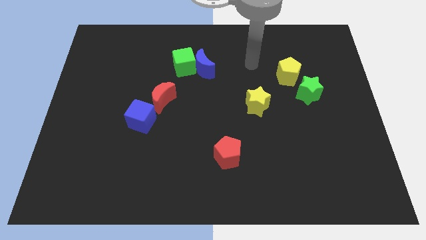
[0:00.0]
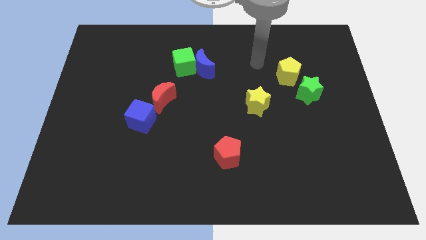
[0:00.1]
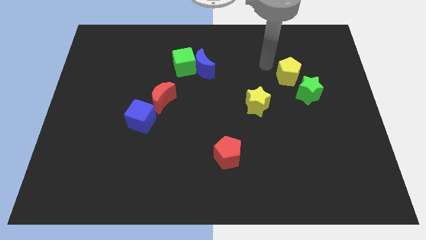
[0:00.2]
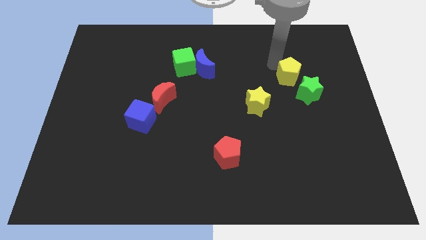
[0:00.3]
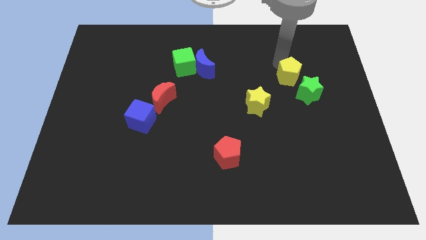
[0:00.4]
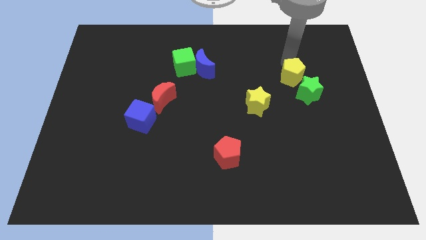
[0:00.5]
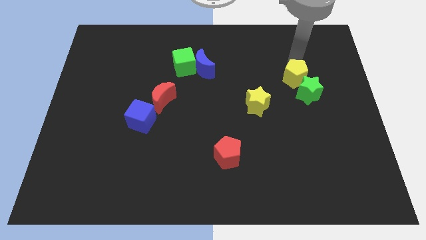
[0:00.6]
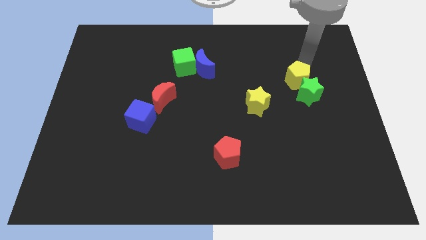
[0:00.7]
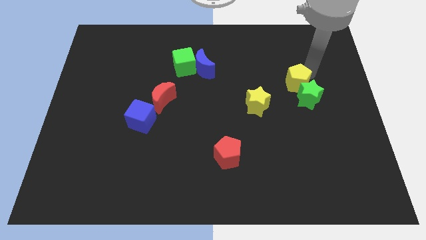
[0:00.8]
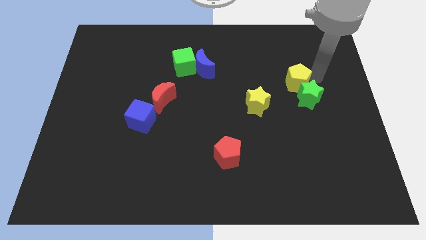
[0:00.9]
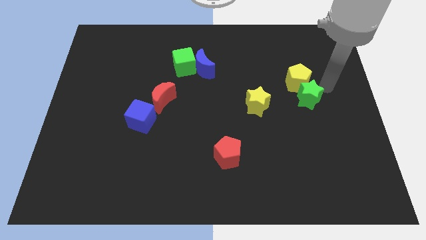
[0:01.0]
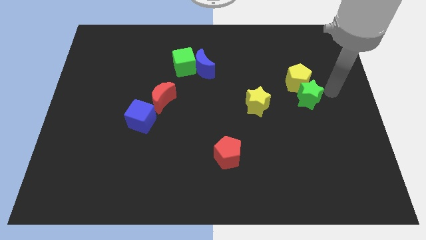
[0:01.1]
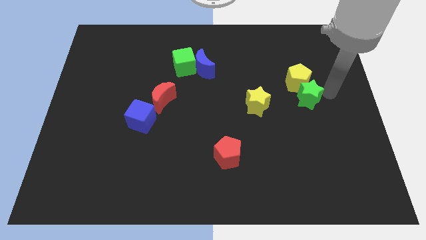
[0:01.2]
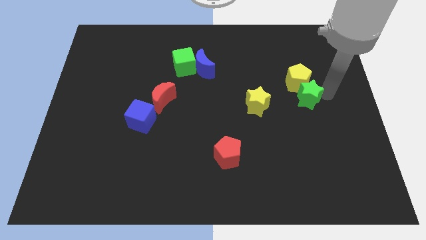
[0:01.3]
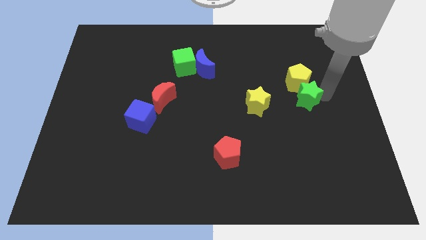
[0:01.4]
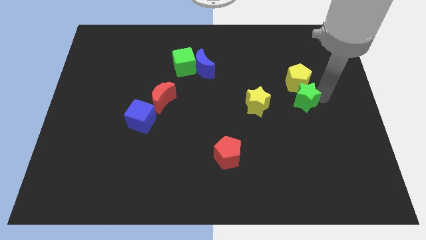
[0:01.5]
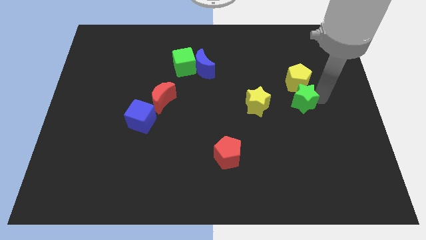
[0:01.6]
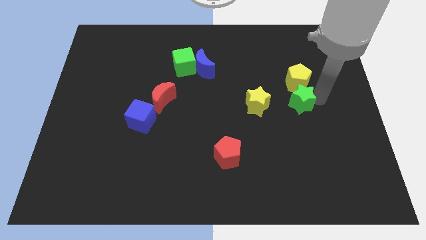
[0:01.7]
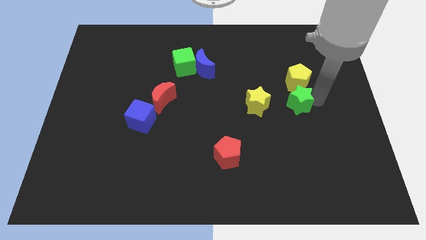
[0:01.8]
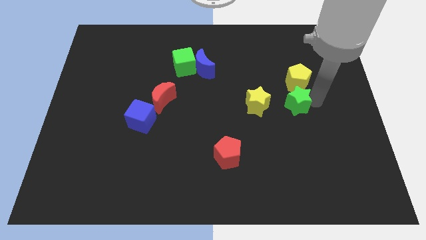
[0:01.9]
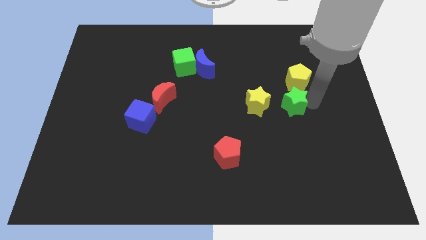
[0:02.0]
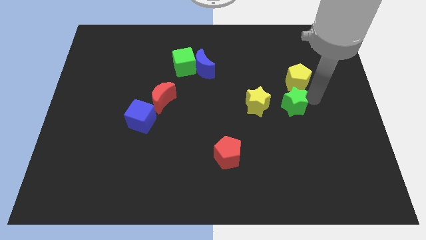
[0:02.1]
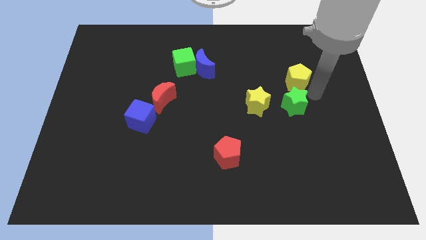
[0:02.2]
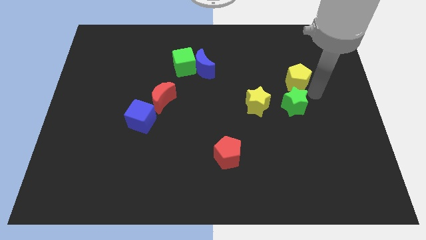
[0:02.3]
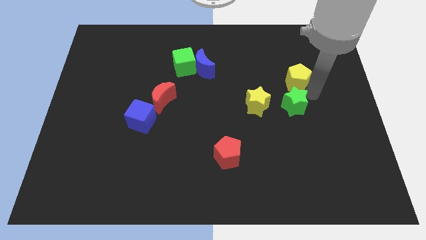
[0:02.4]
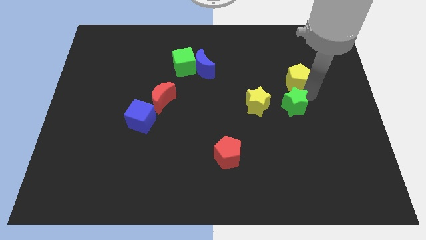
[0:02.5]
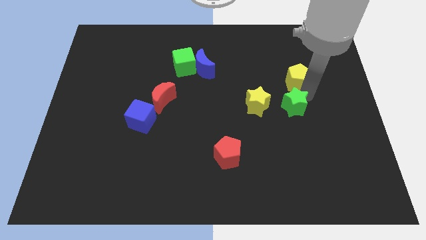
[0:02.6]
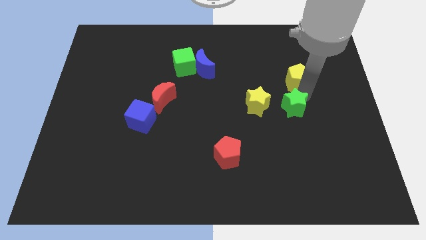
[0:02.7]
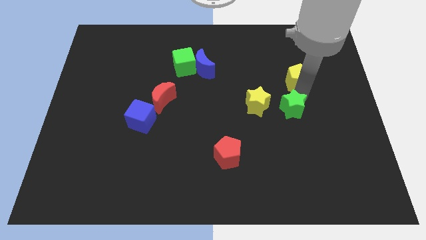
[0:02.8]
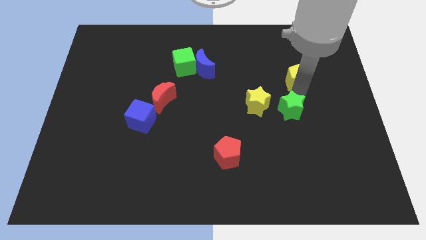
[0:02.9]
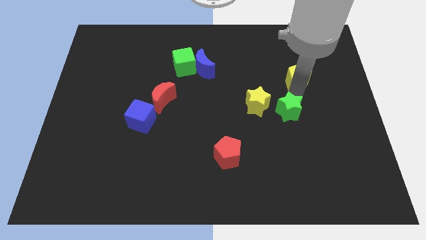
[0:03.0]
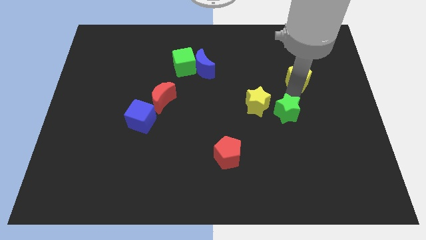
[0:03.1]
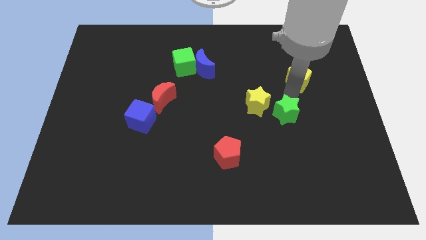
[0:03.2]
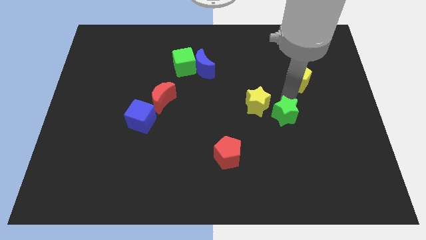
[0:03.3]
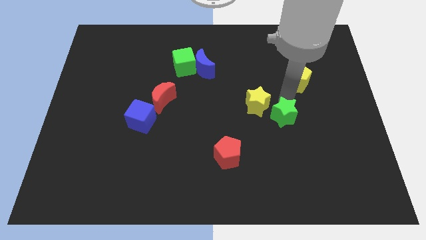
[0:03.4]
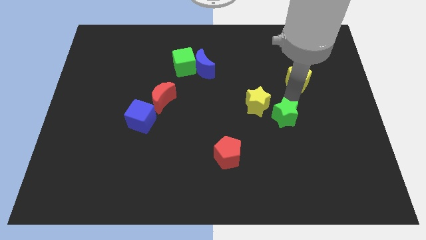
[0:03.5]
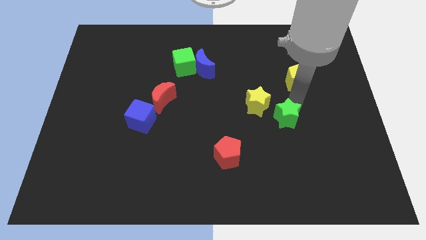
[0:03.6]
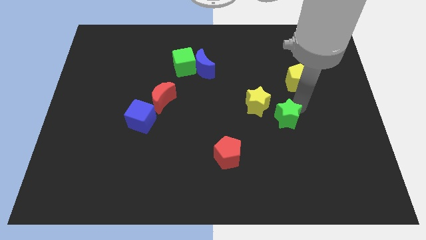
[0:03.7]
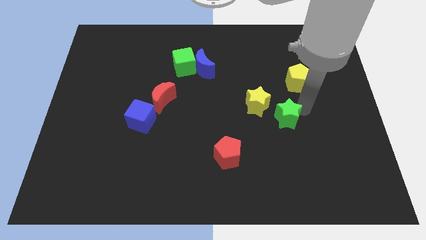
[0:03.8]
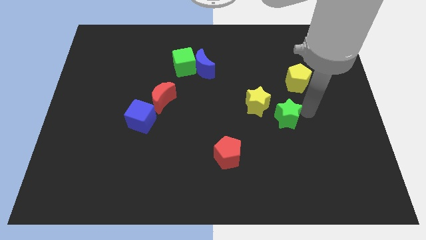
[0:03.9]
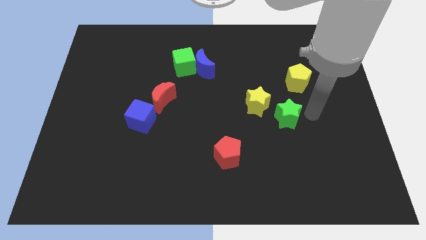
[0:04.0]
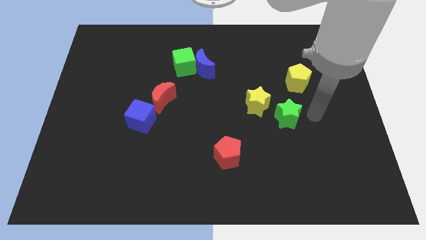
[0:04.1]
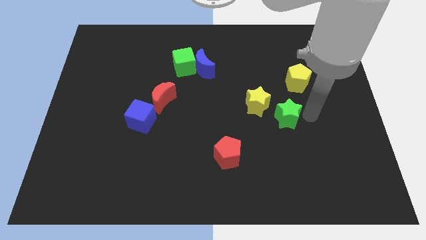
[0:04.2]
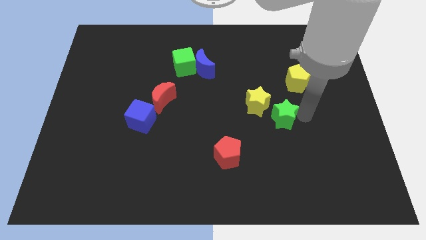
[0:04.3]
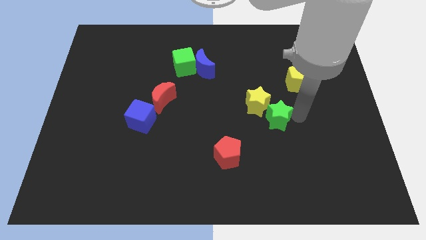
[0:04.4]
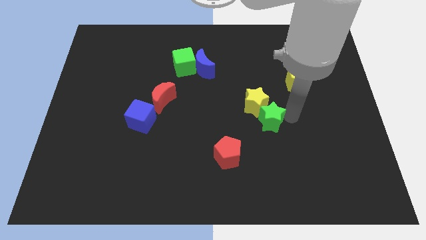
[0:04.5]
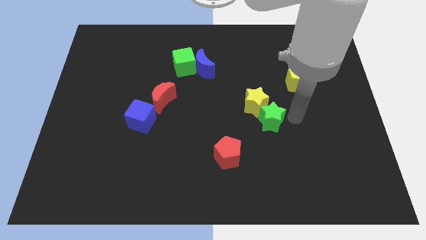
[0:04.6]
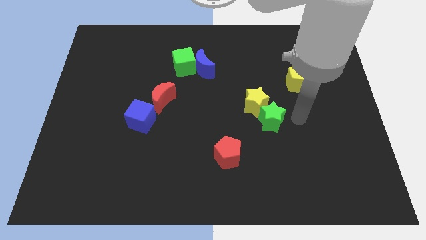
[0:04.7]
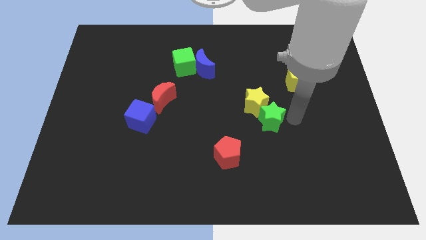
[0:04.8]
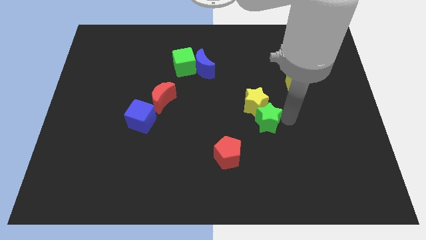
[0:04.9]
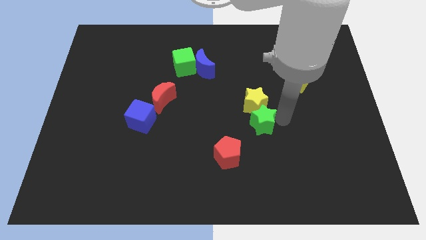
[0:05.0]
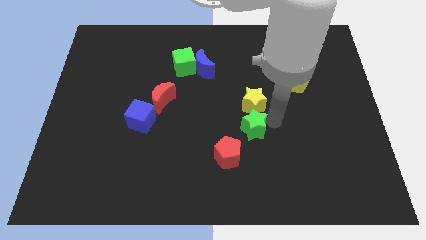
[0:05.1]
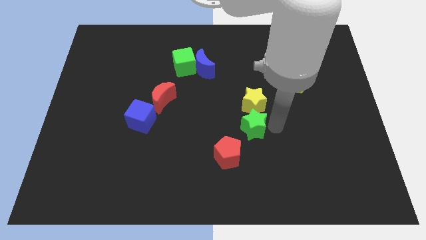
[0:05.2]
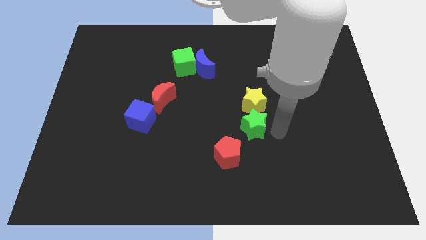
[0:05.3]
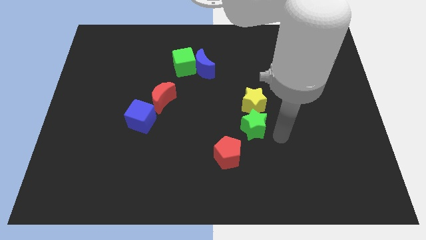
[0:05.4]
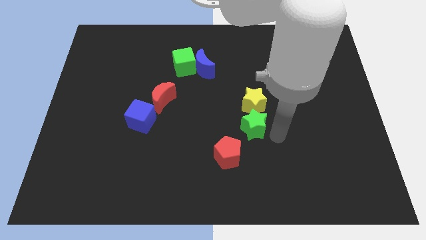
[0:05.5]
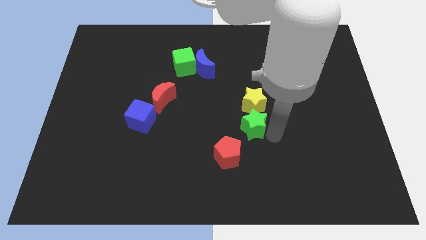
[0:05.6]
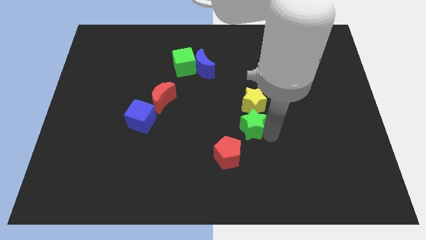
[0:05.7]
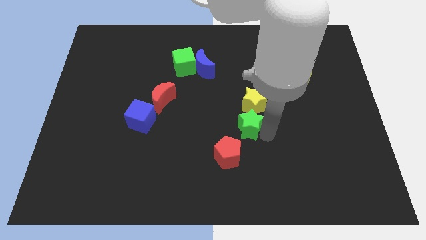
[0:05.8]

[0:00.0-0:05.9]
slide the green star above the red pentagon

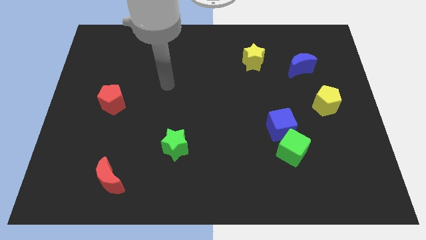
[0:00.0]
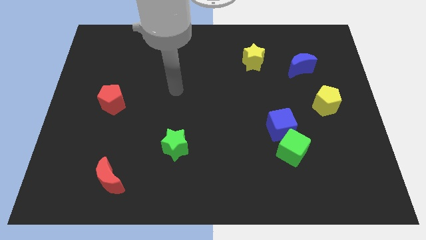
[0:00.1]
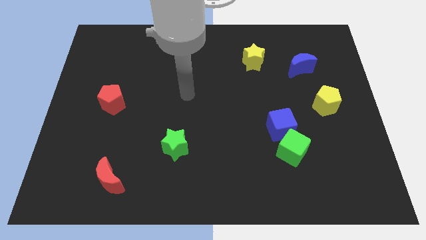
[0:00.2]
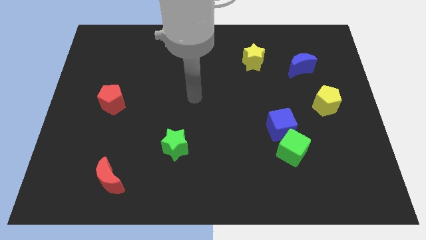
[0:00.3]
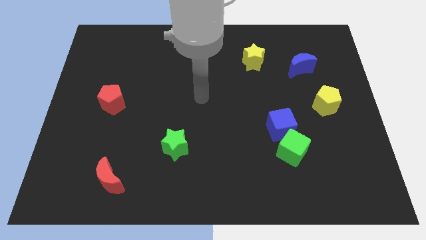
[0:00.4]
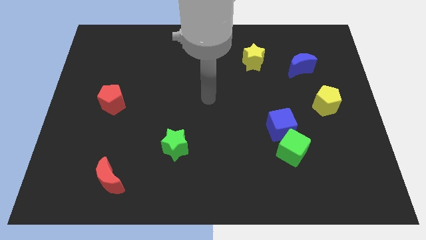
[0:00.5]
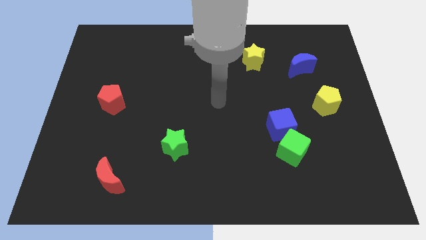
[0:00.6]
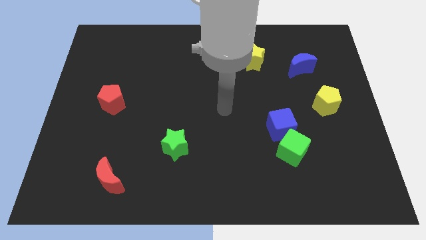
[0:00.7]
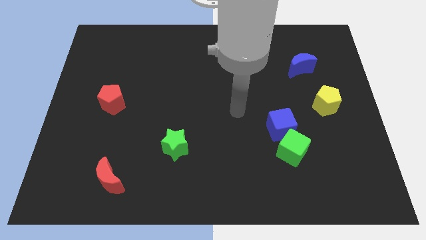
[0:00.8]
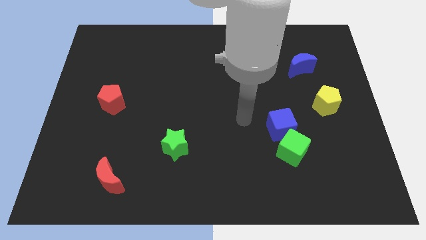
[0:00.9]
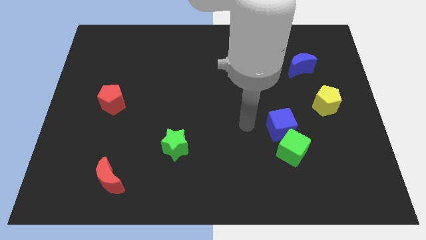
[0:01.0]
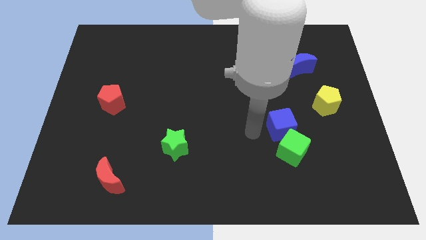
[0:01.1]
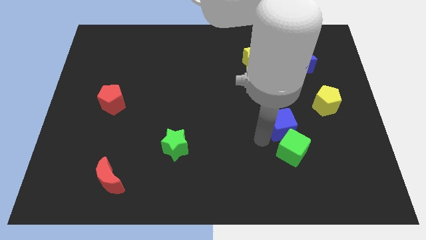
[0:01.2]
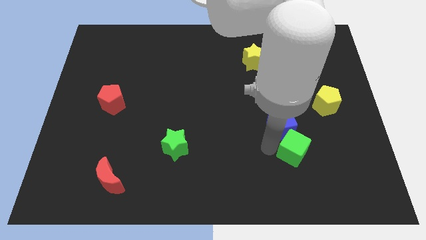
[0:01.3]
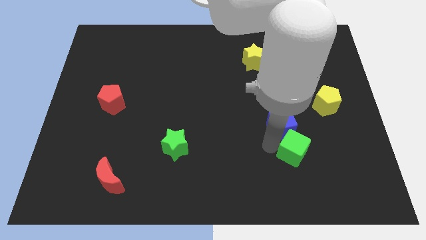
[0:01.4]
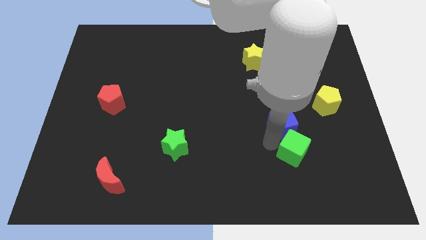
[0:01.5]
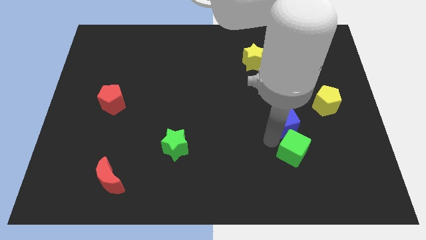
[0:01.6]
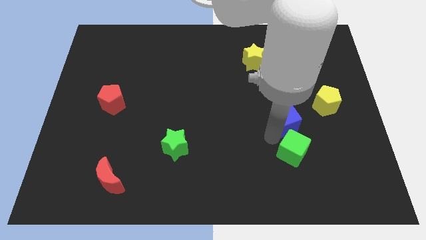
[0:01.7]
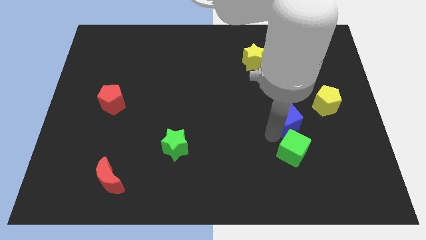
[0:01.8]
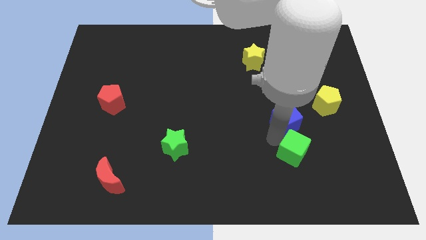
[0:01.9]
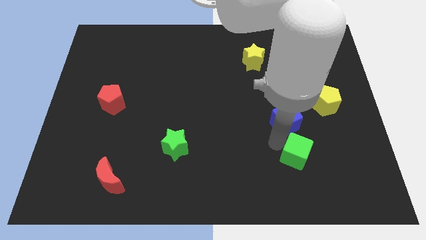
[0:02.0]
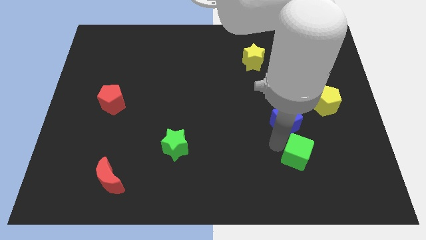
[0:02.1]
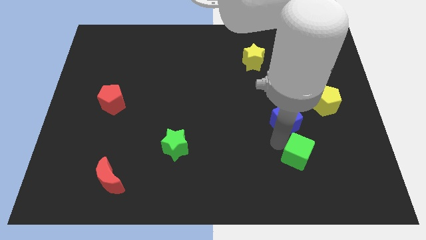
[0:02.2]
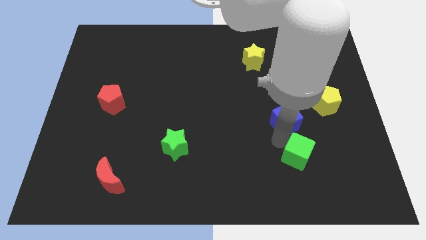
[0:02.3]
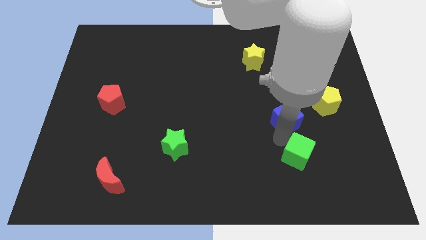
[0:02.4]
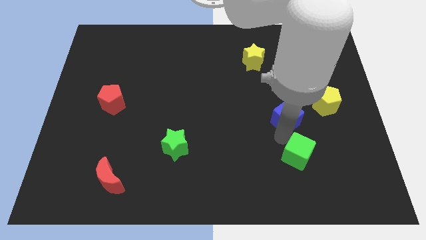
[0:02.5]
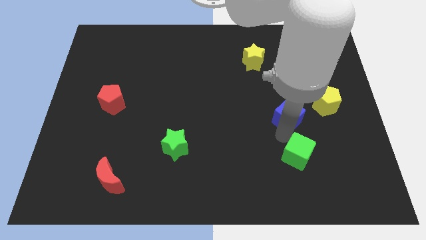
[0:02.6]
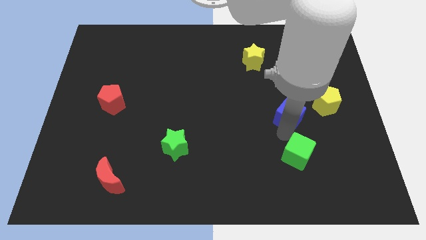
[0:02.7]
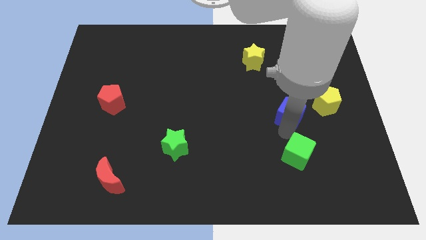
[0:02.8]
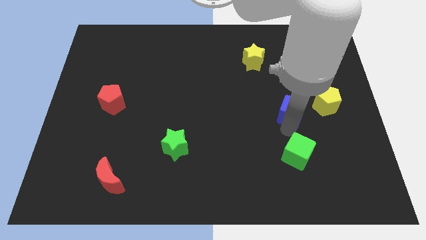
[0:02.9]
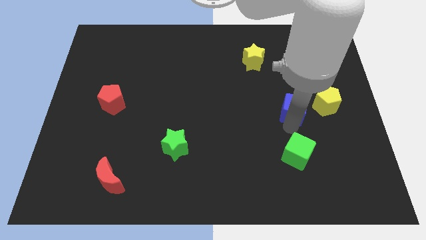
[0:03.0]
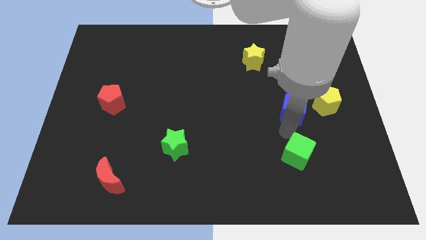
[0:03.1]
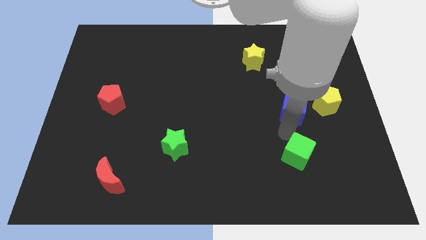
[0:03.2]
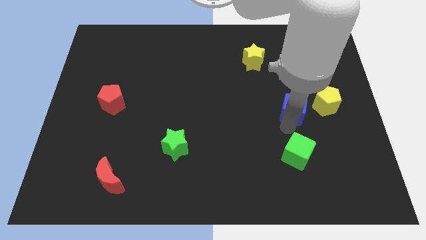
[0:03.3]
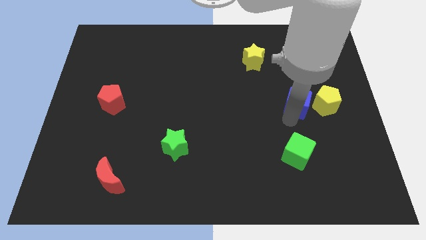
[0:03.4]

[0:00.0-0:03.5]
slide the blue cube to the top left side of the yellow pentagon
